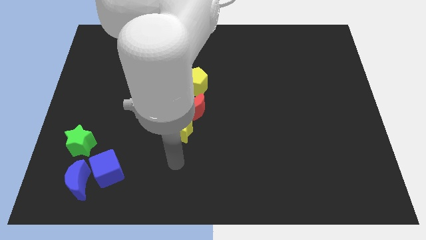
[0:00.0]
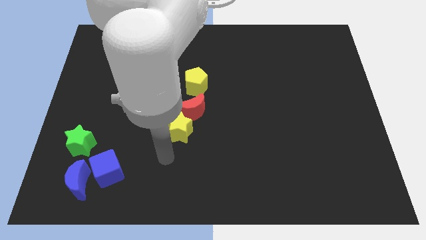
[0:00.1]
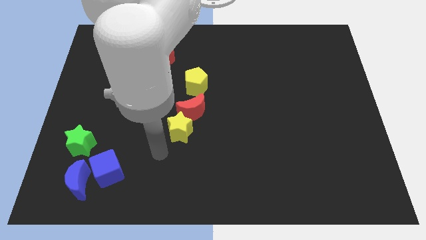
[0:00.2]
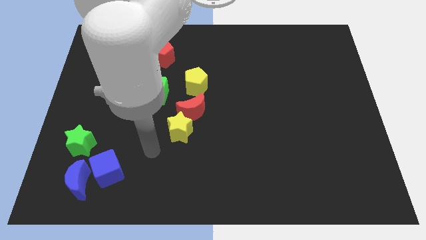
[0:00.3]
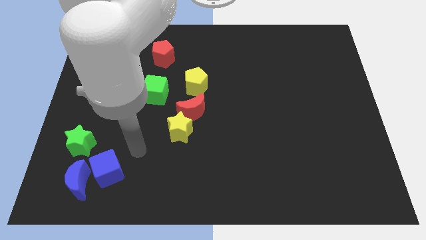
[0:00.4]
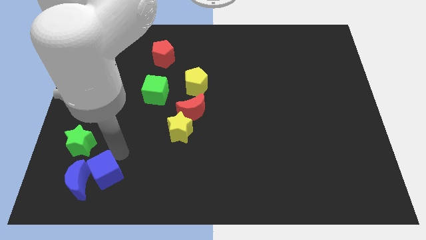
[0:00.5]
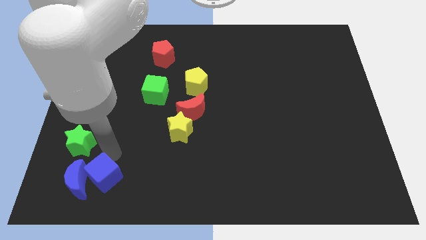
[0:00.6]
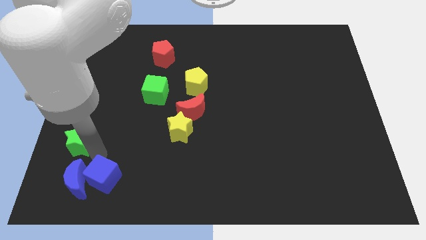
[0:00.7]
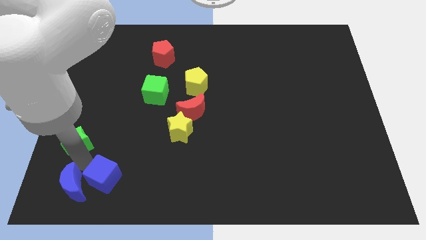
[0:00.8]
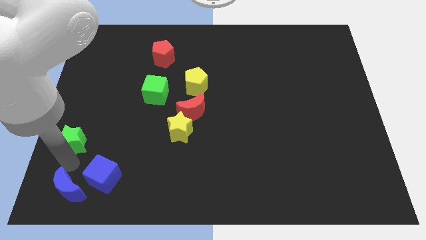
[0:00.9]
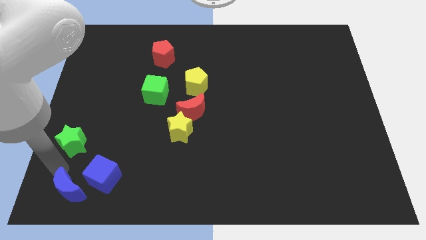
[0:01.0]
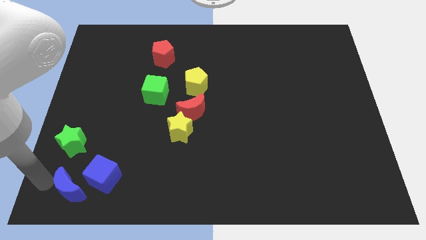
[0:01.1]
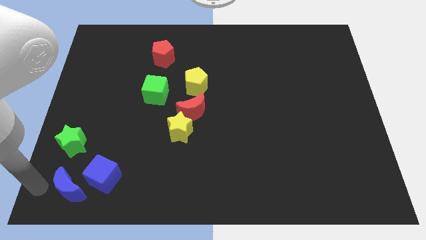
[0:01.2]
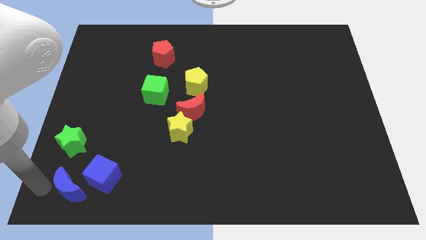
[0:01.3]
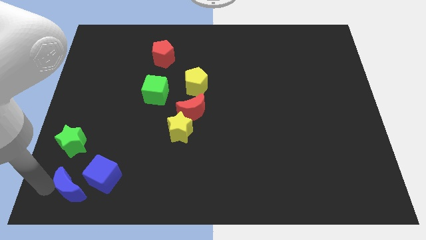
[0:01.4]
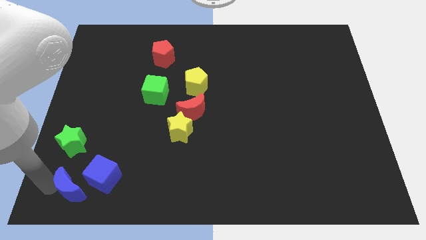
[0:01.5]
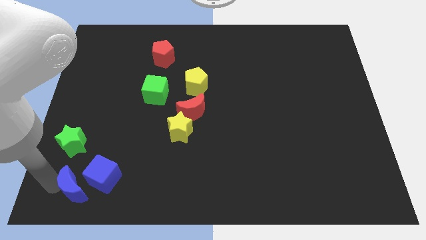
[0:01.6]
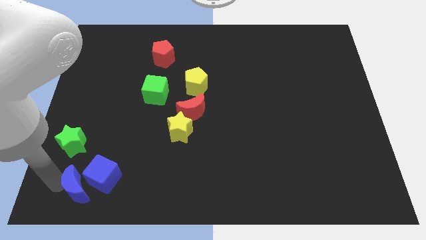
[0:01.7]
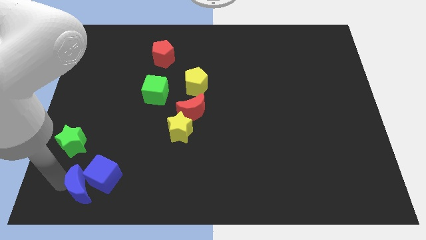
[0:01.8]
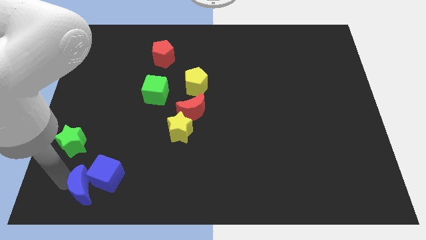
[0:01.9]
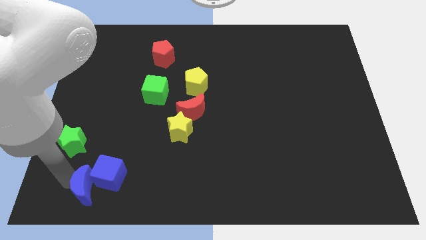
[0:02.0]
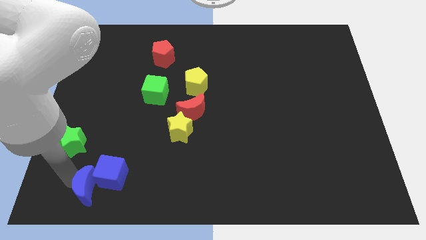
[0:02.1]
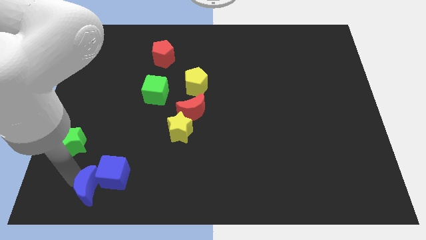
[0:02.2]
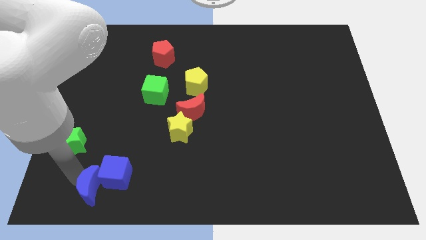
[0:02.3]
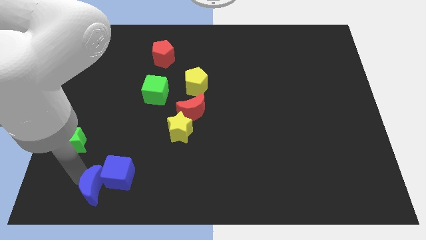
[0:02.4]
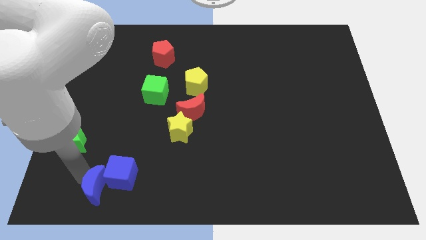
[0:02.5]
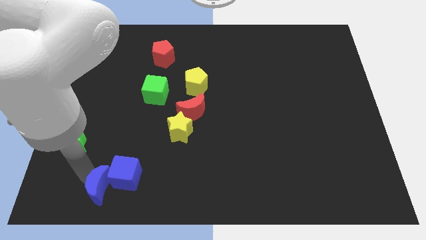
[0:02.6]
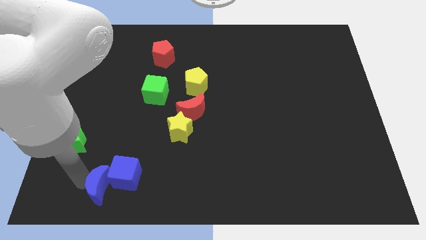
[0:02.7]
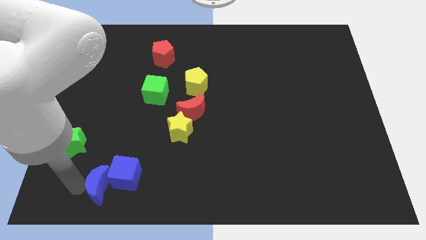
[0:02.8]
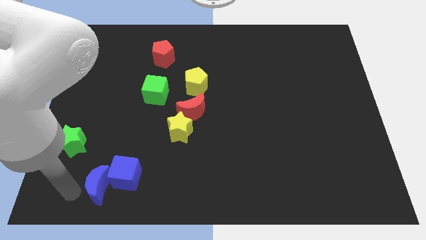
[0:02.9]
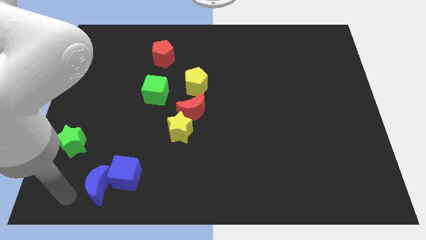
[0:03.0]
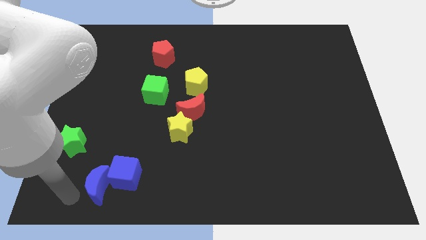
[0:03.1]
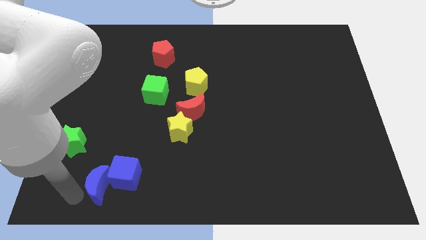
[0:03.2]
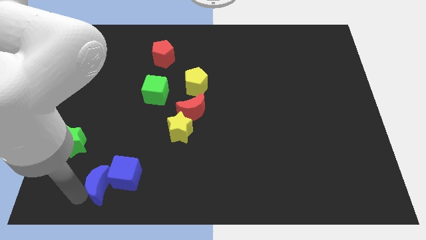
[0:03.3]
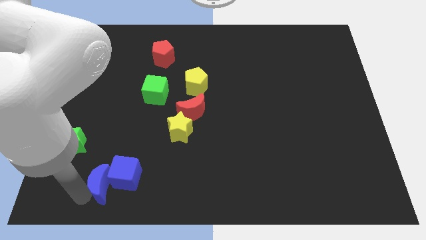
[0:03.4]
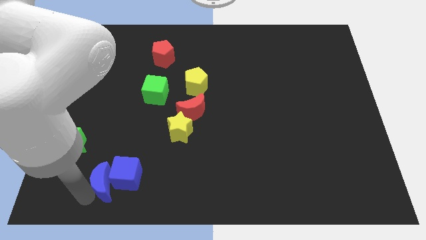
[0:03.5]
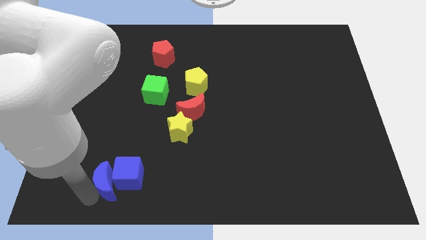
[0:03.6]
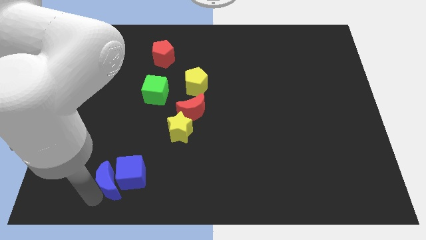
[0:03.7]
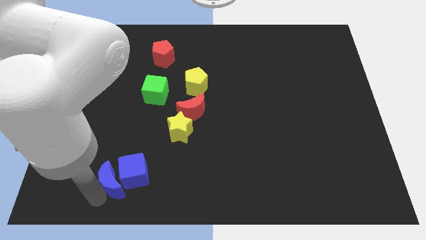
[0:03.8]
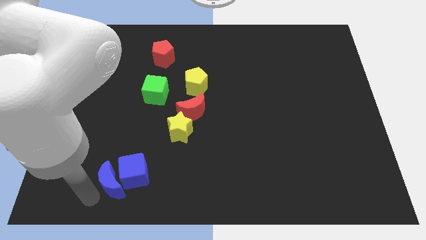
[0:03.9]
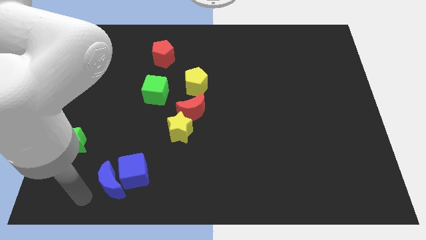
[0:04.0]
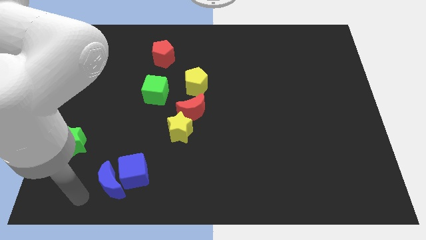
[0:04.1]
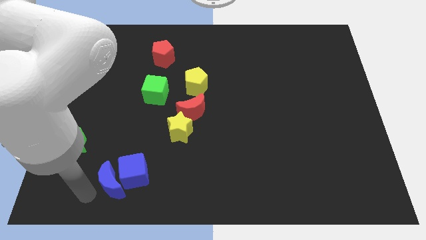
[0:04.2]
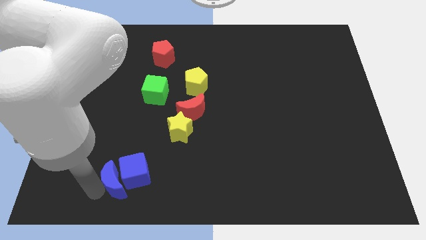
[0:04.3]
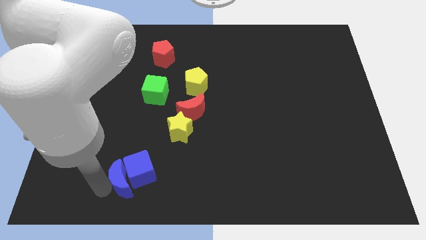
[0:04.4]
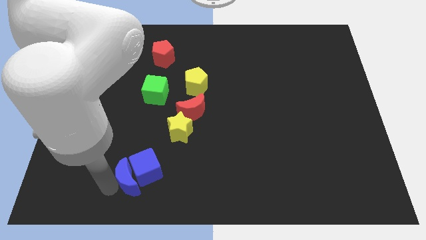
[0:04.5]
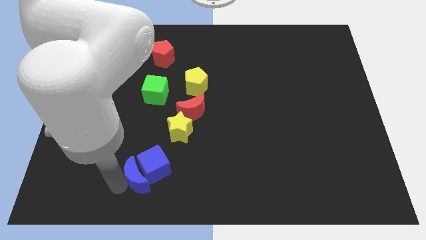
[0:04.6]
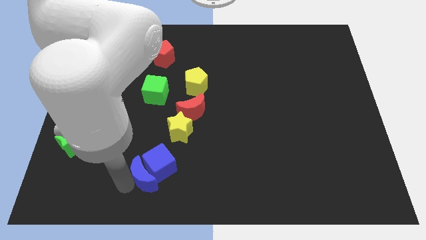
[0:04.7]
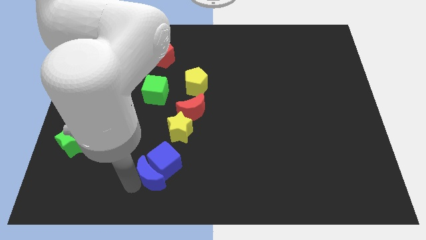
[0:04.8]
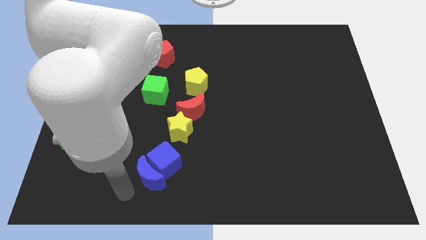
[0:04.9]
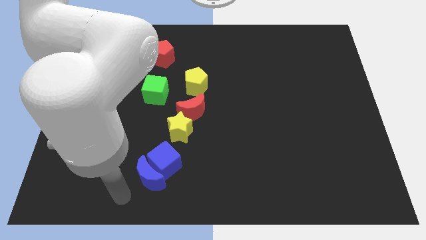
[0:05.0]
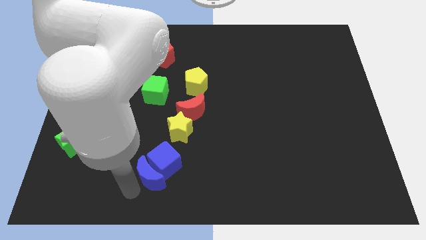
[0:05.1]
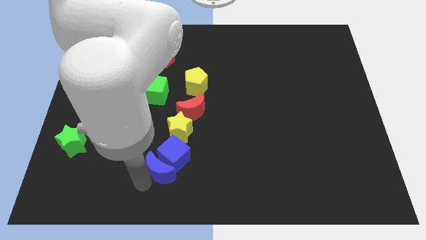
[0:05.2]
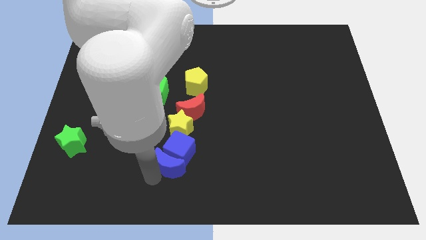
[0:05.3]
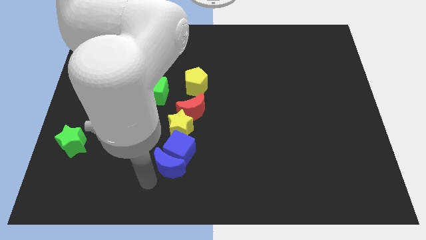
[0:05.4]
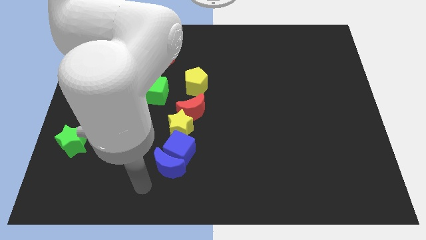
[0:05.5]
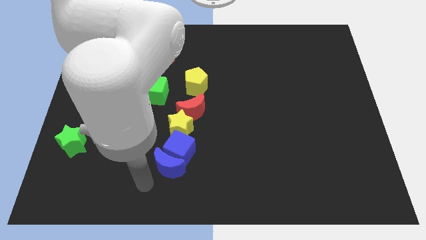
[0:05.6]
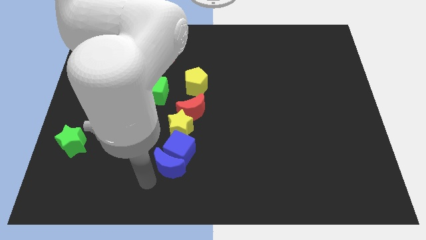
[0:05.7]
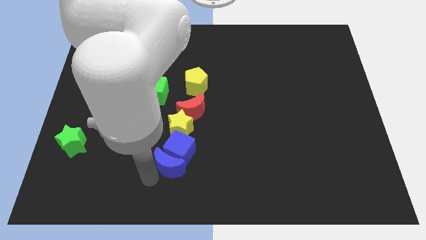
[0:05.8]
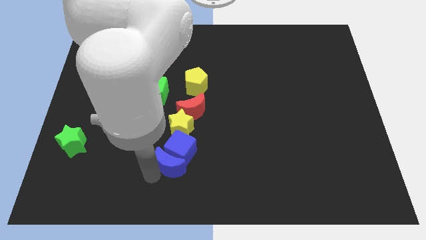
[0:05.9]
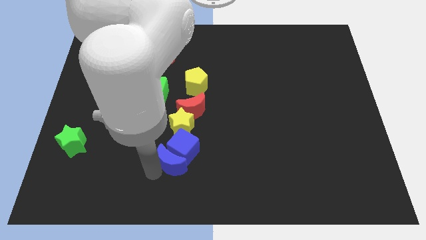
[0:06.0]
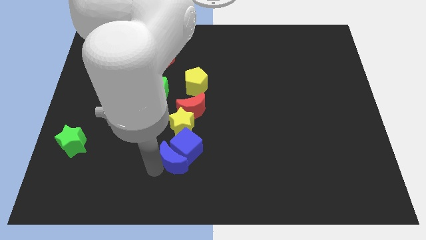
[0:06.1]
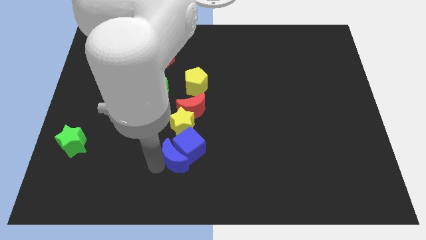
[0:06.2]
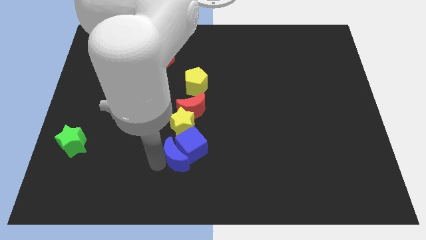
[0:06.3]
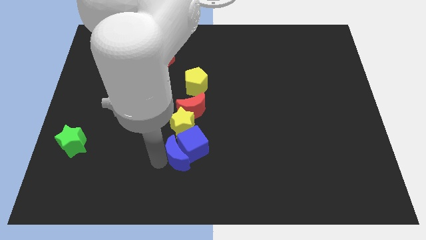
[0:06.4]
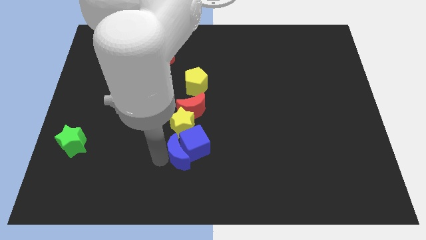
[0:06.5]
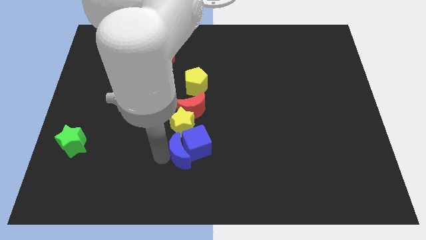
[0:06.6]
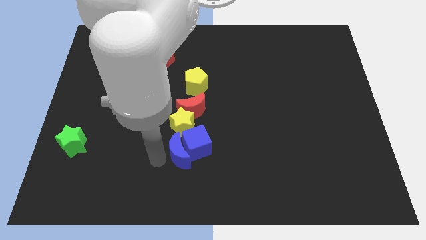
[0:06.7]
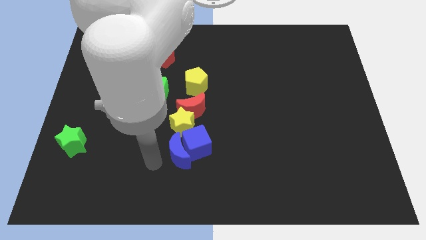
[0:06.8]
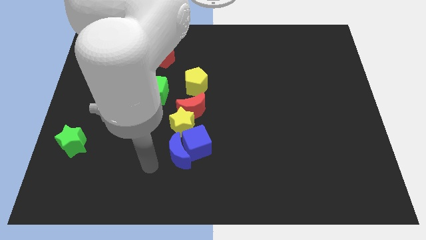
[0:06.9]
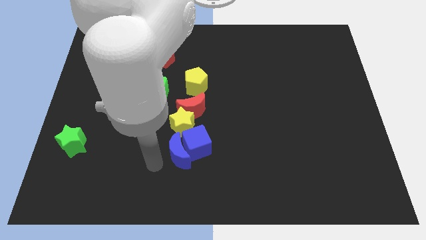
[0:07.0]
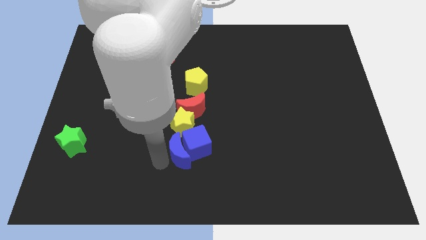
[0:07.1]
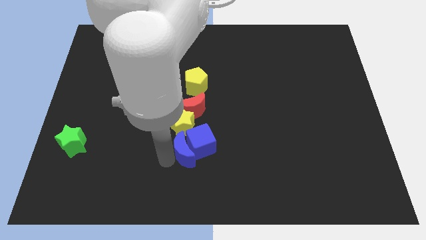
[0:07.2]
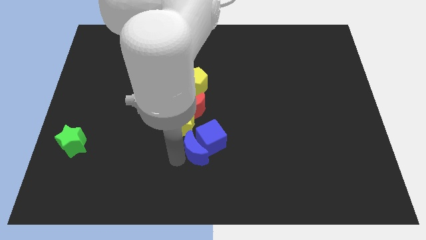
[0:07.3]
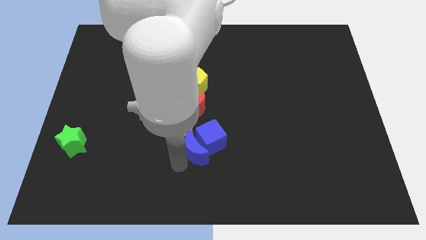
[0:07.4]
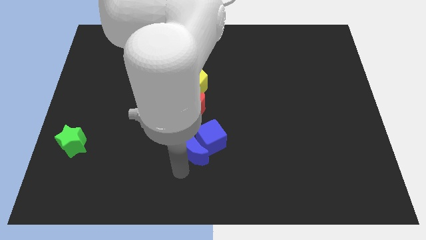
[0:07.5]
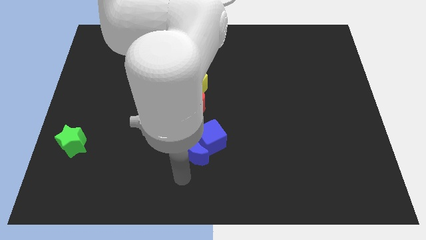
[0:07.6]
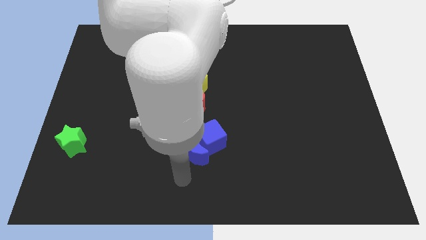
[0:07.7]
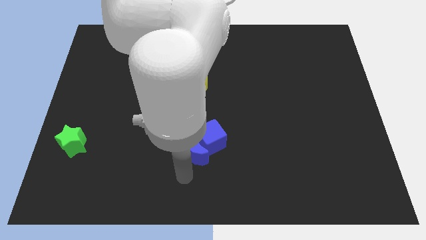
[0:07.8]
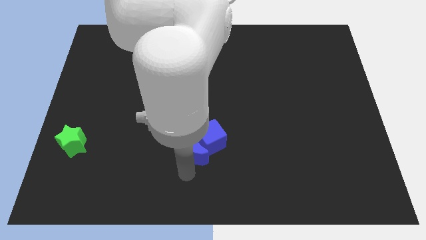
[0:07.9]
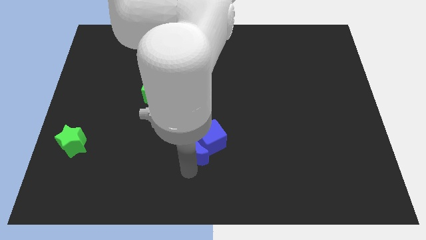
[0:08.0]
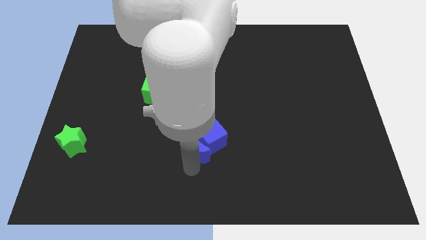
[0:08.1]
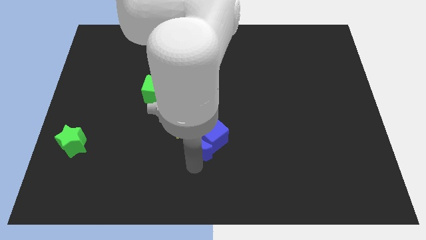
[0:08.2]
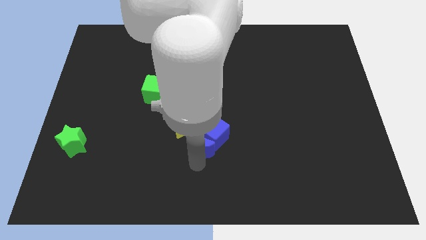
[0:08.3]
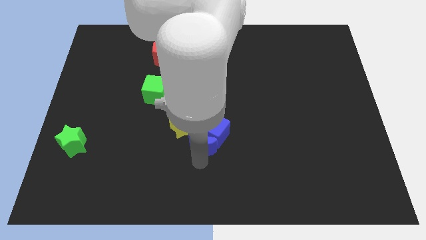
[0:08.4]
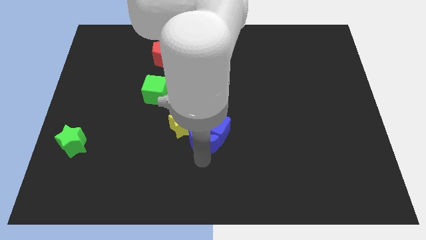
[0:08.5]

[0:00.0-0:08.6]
put the blue moon to the middle
